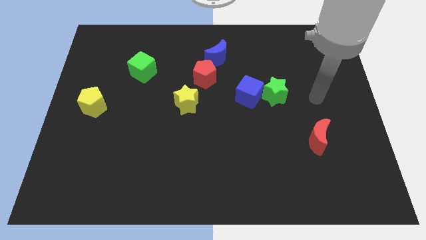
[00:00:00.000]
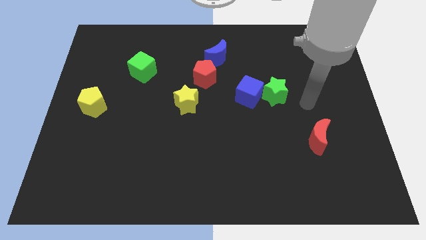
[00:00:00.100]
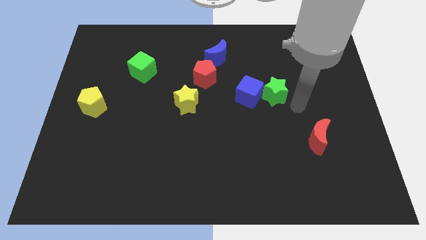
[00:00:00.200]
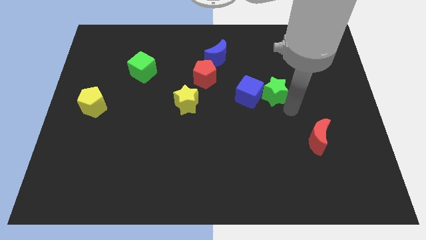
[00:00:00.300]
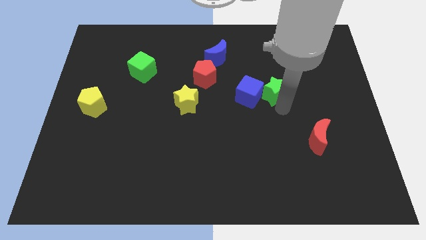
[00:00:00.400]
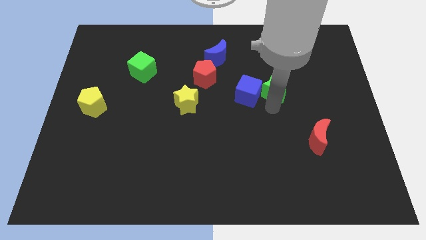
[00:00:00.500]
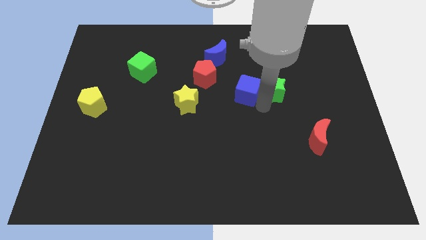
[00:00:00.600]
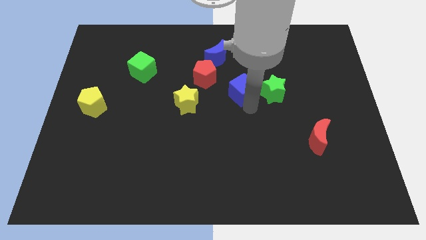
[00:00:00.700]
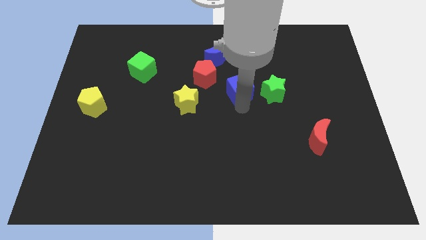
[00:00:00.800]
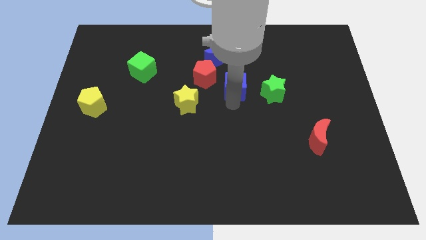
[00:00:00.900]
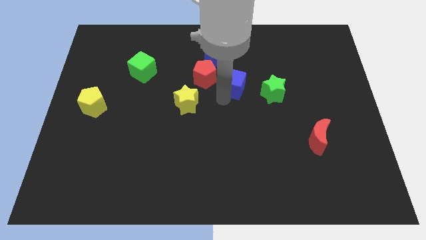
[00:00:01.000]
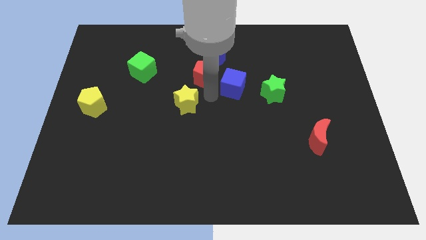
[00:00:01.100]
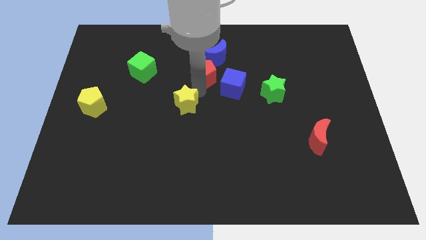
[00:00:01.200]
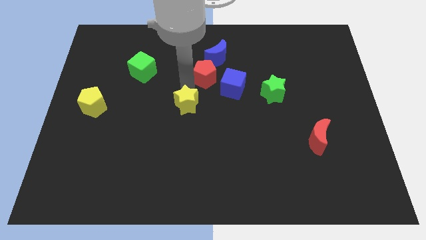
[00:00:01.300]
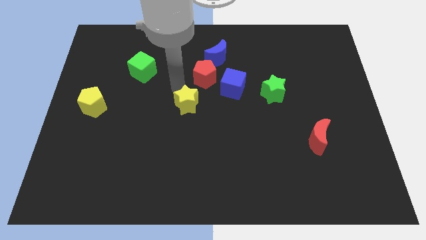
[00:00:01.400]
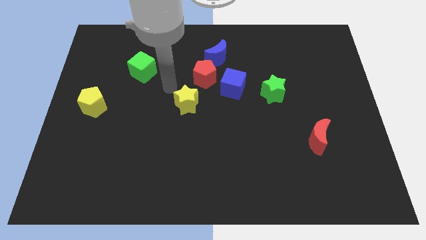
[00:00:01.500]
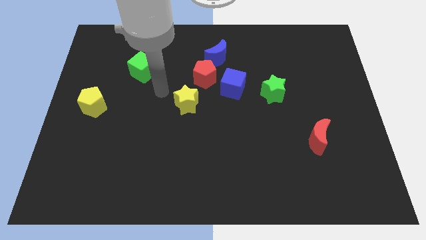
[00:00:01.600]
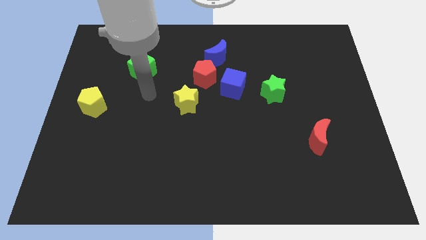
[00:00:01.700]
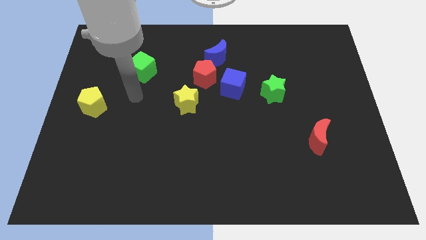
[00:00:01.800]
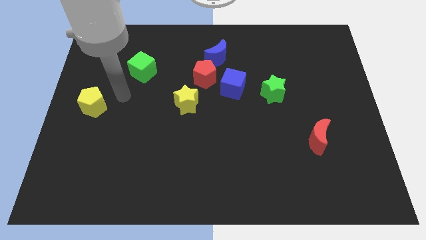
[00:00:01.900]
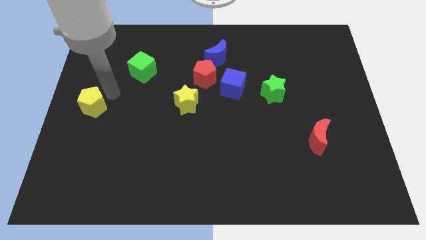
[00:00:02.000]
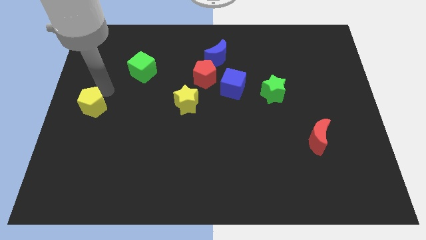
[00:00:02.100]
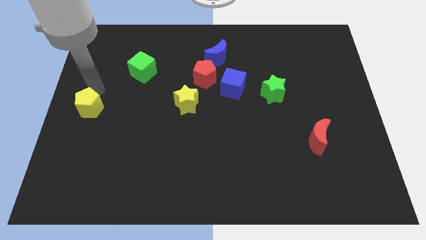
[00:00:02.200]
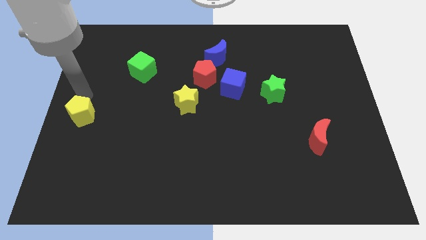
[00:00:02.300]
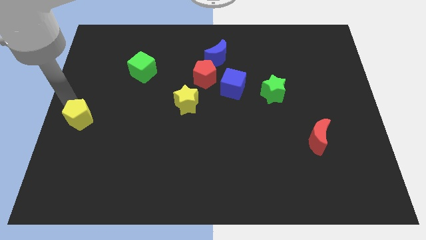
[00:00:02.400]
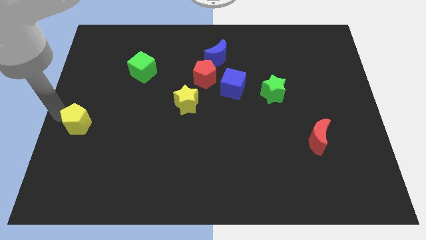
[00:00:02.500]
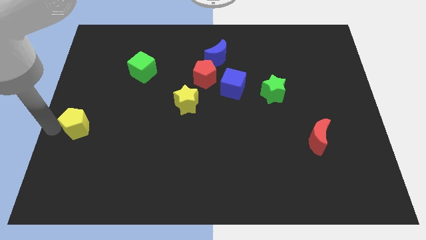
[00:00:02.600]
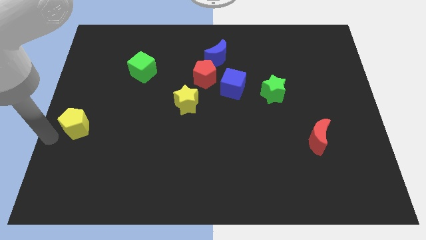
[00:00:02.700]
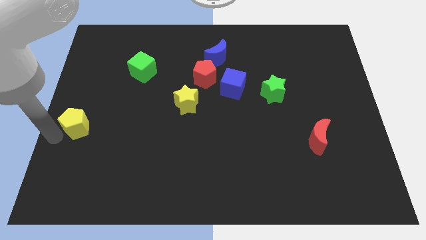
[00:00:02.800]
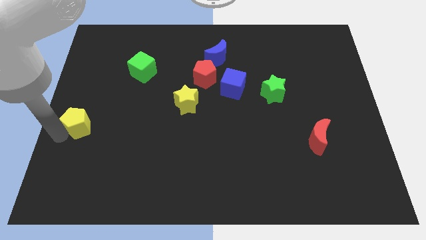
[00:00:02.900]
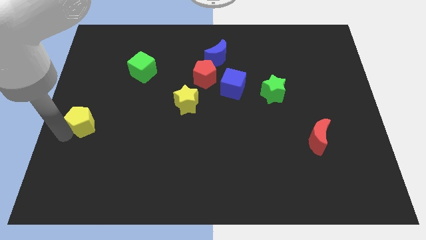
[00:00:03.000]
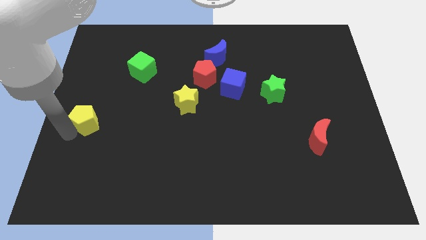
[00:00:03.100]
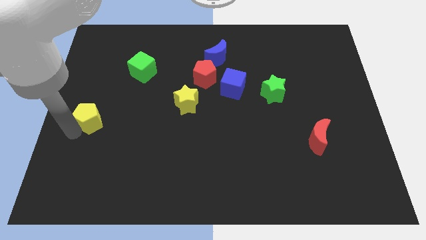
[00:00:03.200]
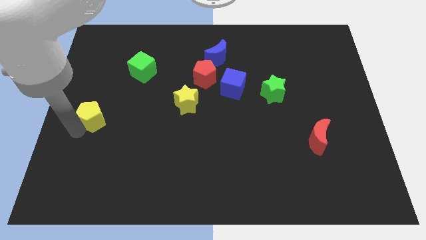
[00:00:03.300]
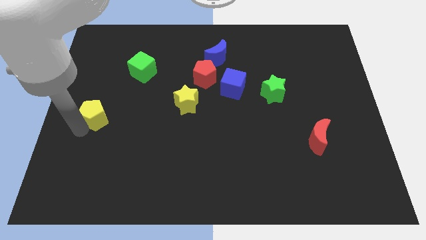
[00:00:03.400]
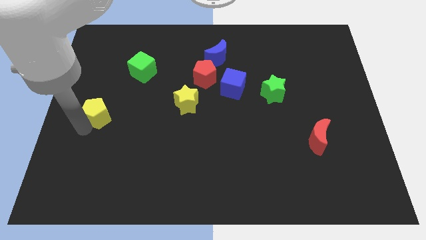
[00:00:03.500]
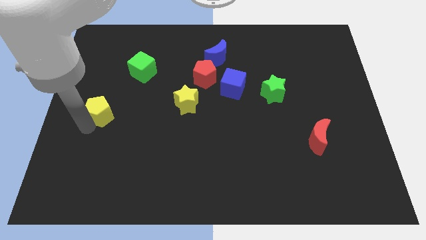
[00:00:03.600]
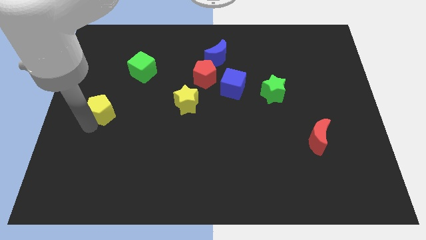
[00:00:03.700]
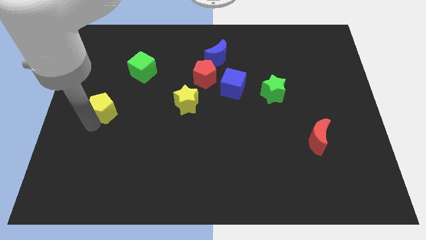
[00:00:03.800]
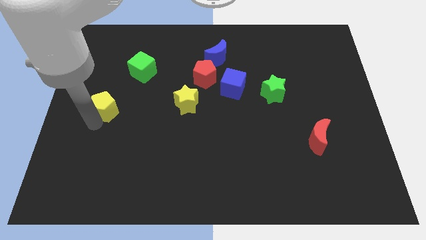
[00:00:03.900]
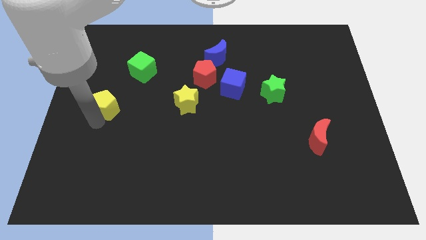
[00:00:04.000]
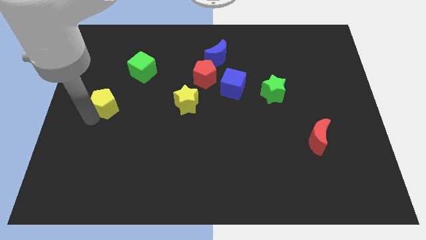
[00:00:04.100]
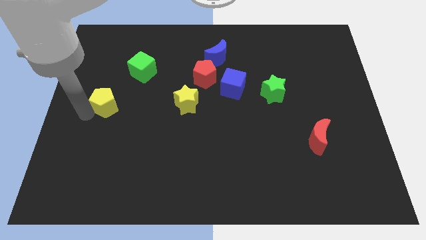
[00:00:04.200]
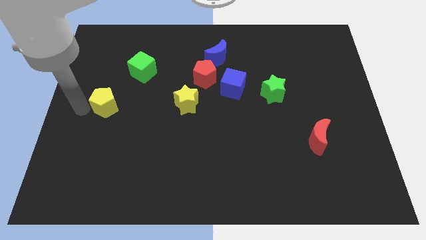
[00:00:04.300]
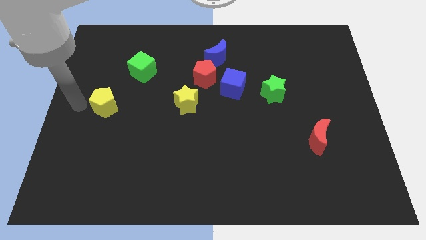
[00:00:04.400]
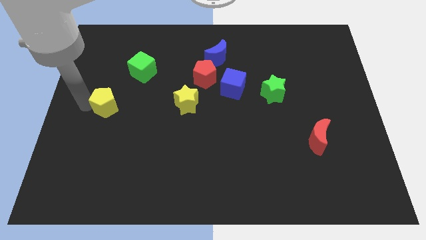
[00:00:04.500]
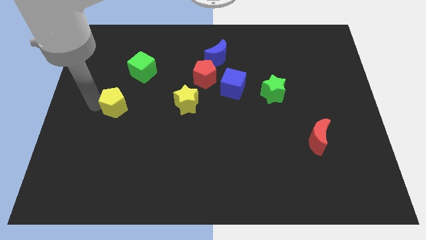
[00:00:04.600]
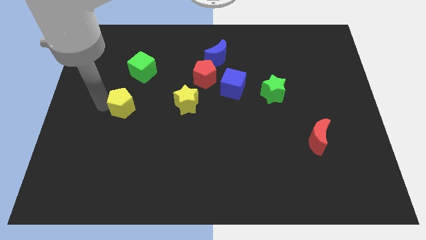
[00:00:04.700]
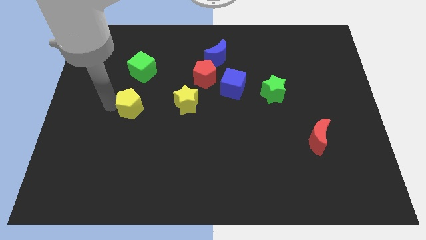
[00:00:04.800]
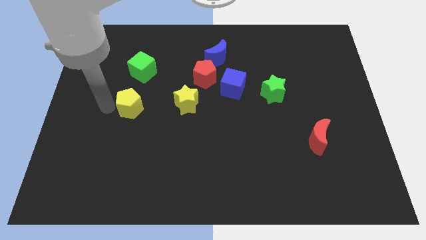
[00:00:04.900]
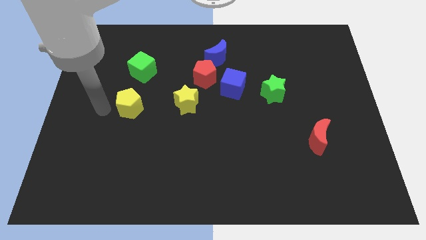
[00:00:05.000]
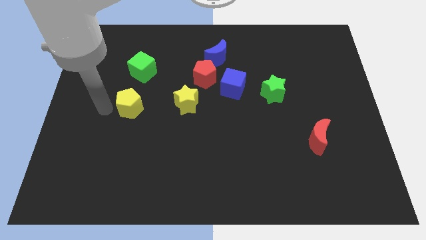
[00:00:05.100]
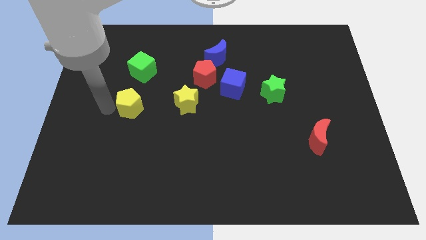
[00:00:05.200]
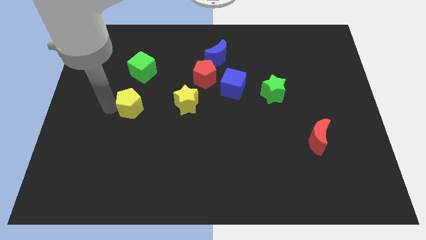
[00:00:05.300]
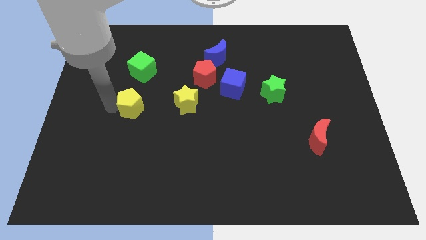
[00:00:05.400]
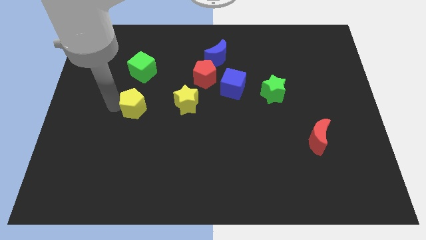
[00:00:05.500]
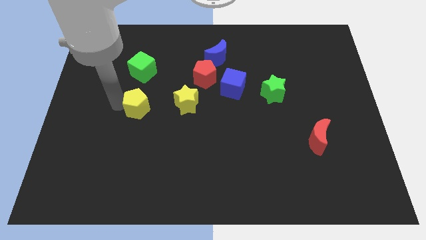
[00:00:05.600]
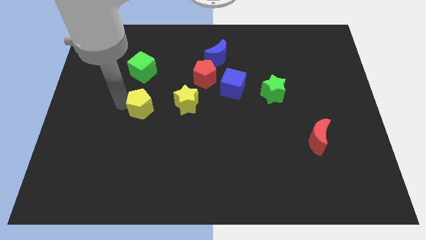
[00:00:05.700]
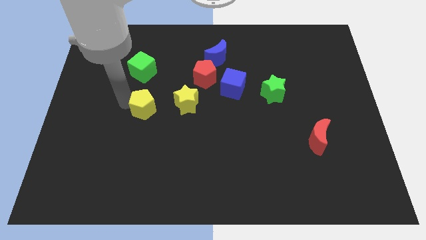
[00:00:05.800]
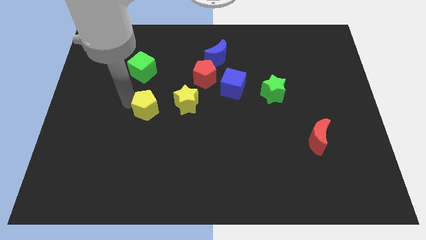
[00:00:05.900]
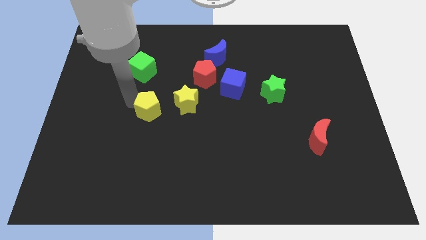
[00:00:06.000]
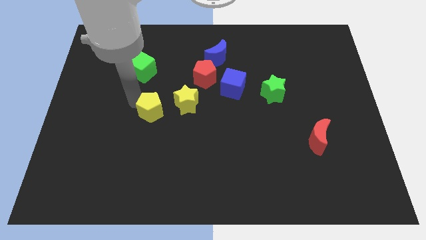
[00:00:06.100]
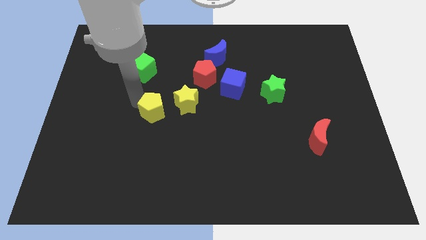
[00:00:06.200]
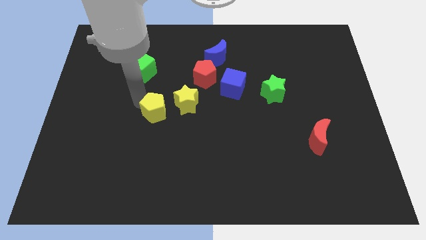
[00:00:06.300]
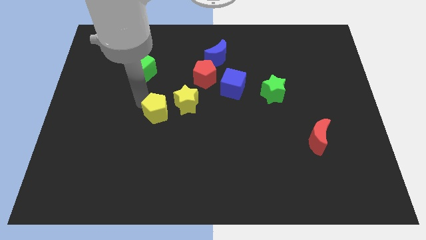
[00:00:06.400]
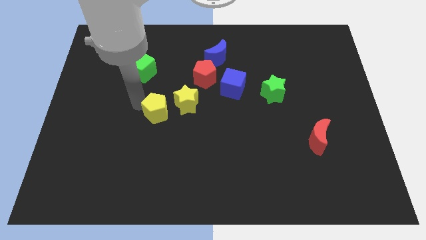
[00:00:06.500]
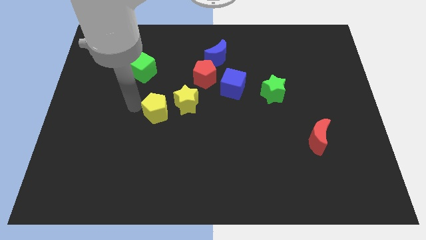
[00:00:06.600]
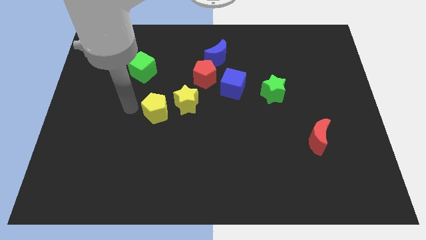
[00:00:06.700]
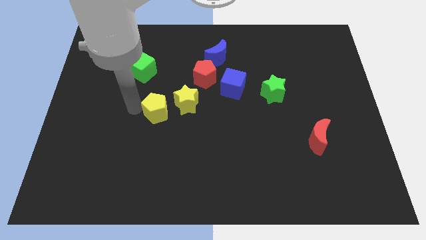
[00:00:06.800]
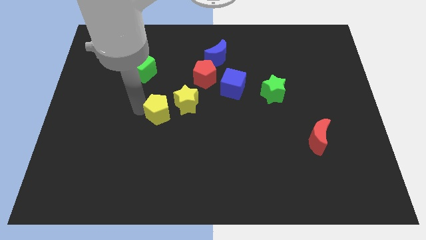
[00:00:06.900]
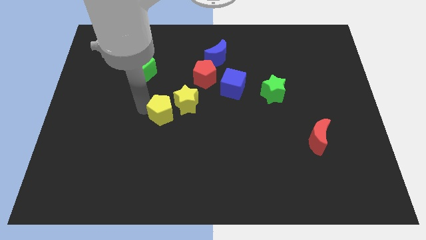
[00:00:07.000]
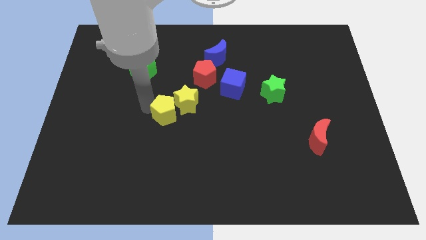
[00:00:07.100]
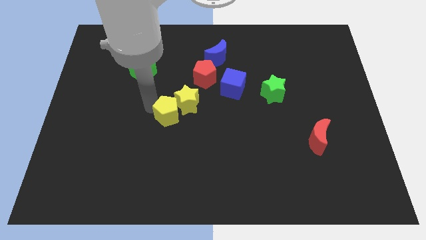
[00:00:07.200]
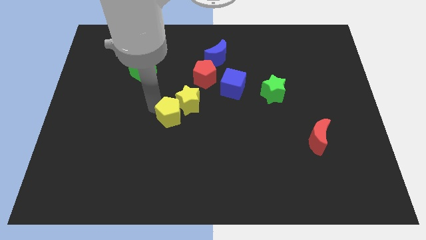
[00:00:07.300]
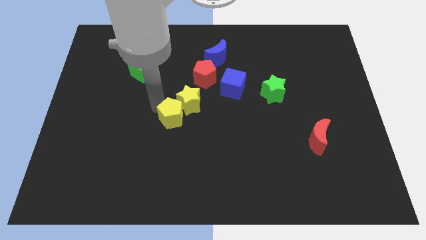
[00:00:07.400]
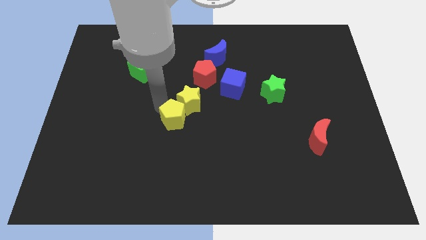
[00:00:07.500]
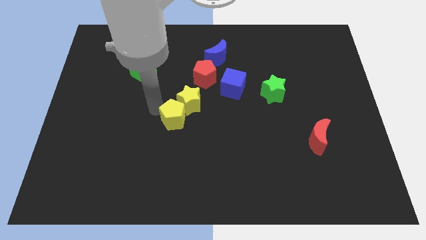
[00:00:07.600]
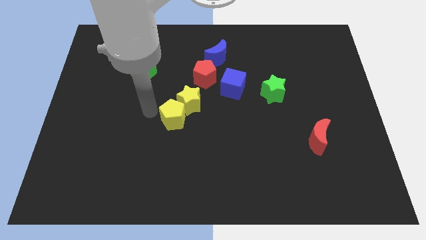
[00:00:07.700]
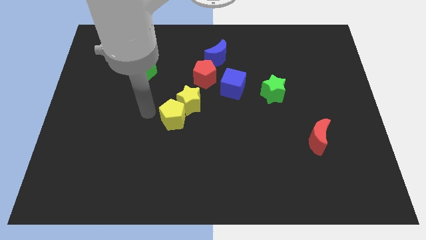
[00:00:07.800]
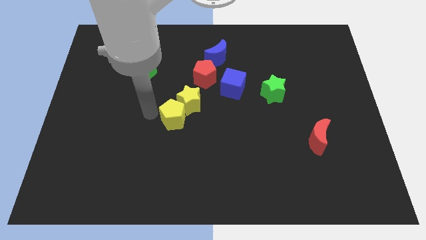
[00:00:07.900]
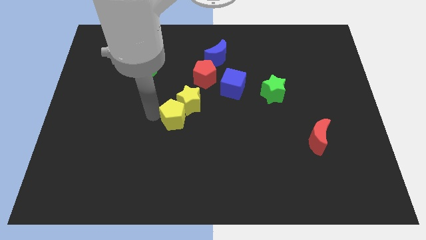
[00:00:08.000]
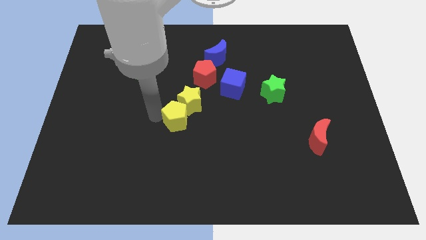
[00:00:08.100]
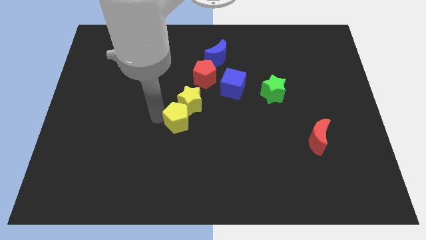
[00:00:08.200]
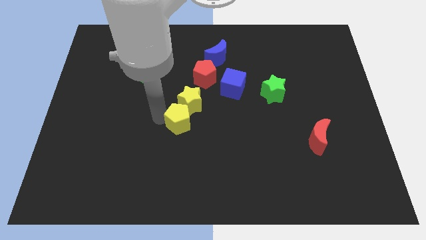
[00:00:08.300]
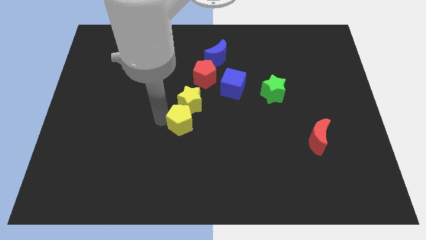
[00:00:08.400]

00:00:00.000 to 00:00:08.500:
push the yellow pentagon right
